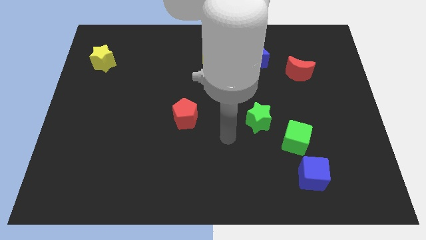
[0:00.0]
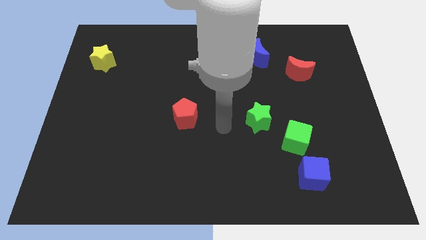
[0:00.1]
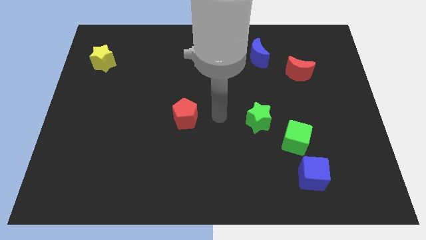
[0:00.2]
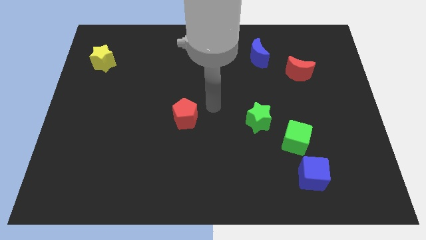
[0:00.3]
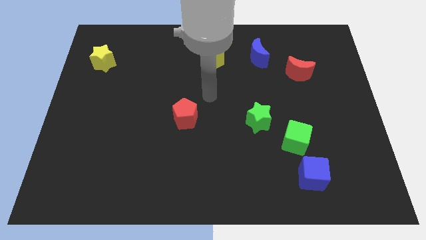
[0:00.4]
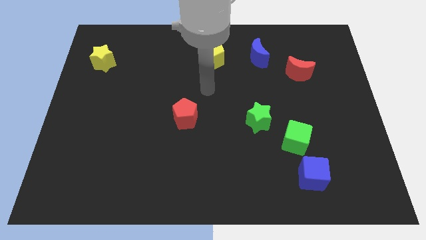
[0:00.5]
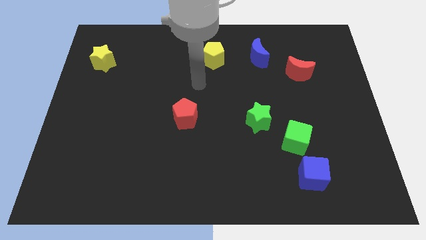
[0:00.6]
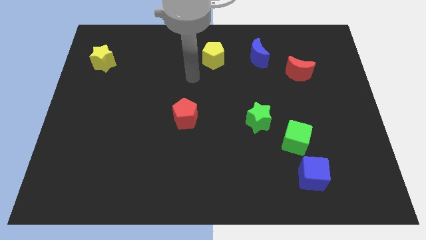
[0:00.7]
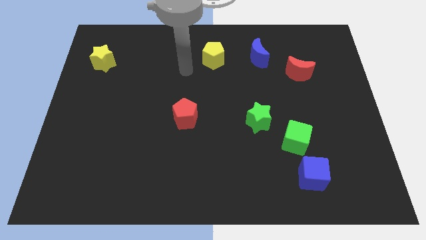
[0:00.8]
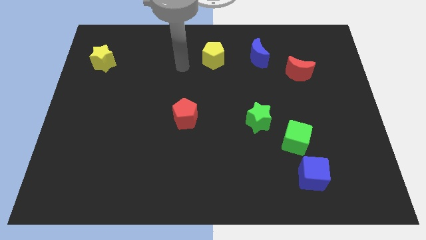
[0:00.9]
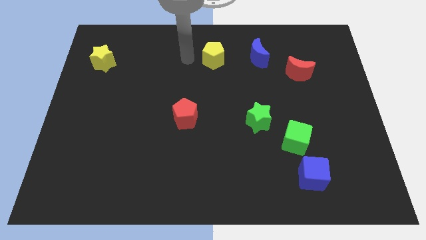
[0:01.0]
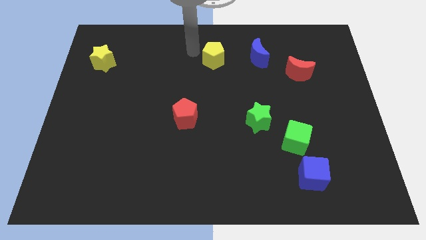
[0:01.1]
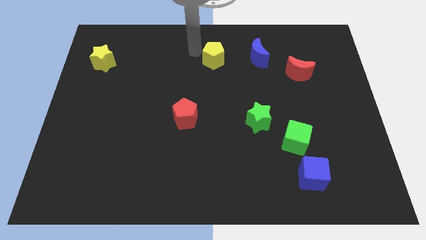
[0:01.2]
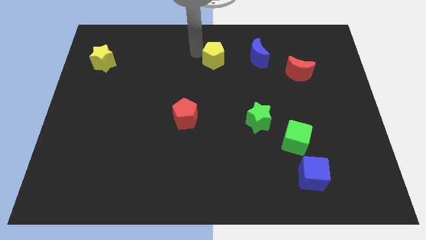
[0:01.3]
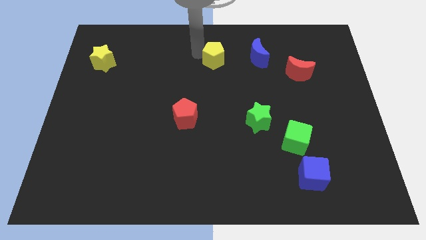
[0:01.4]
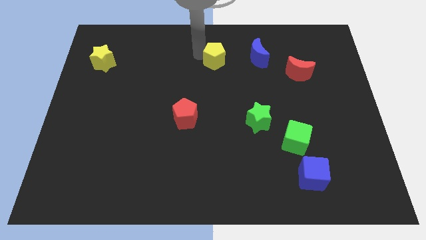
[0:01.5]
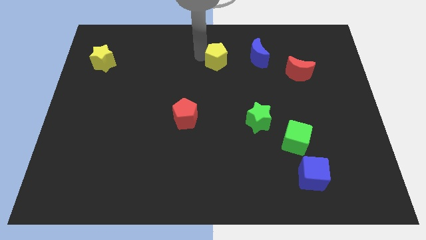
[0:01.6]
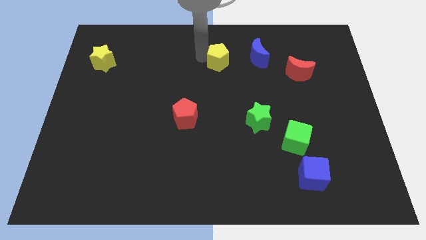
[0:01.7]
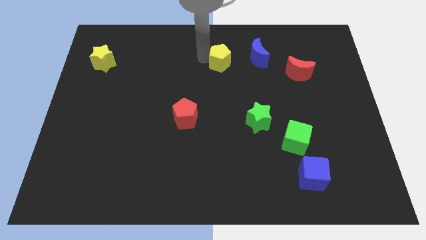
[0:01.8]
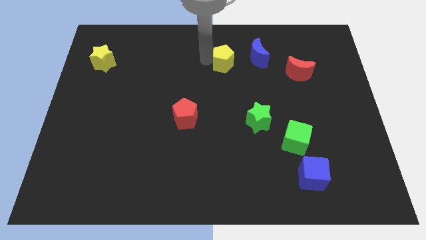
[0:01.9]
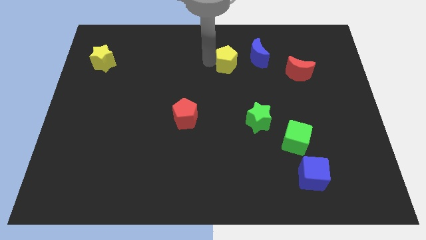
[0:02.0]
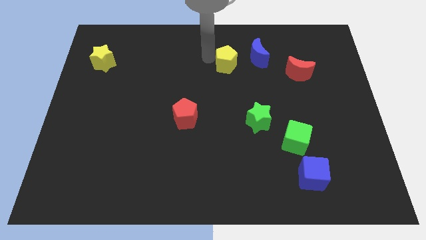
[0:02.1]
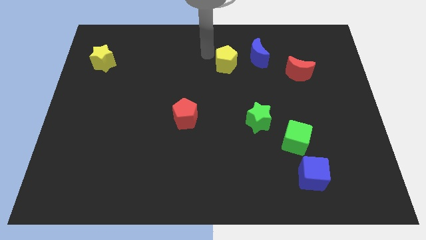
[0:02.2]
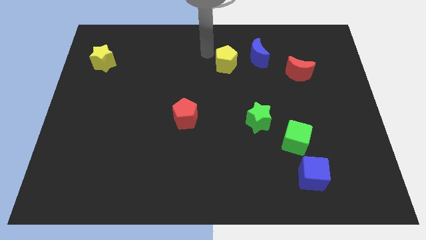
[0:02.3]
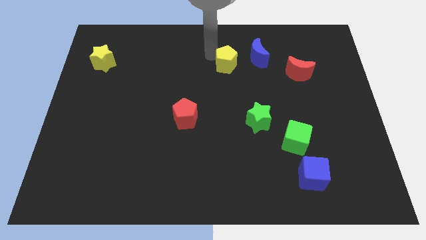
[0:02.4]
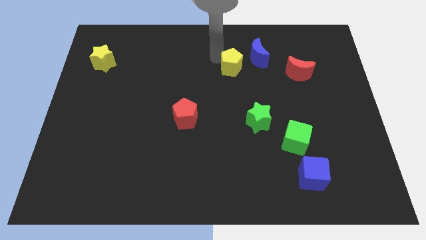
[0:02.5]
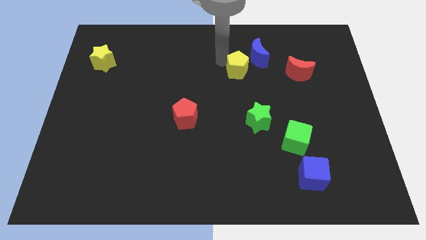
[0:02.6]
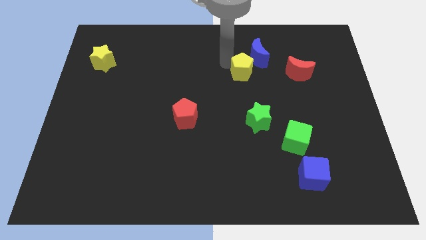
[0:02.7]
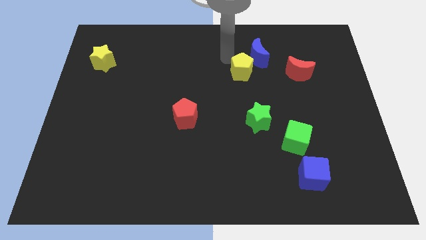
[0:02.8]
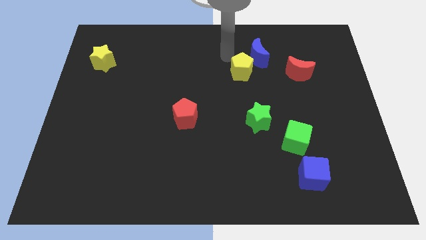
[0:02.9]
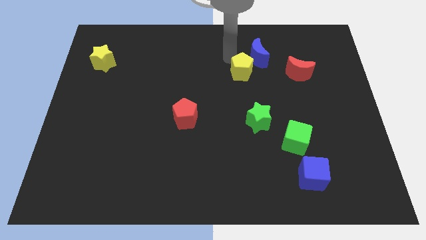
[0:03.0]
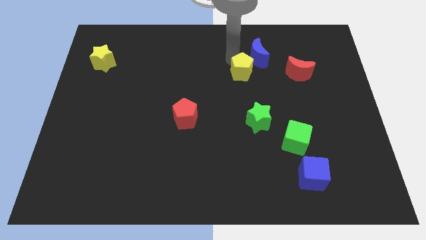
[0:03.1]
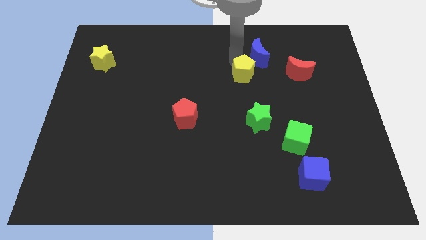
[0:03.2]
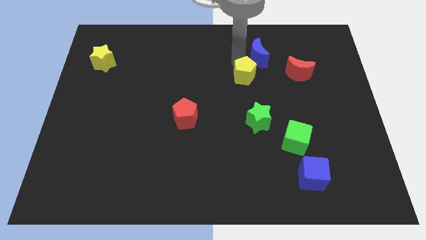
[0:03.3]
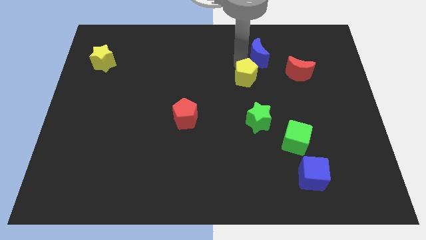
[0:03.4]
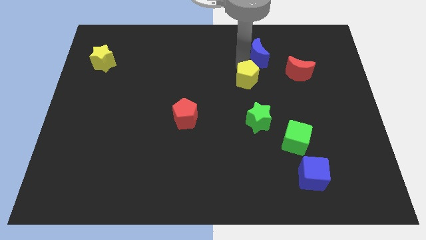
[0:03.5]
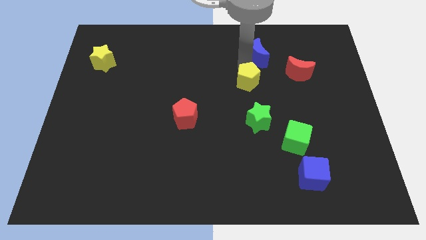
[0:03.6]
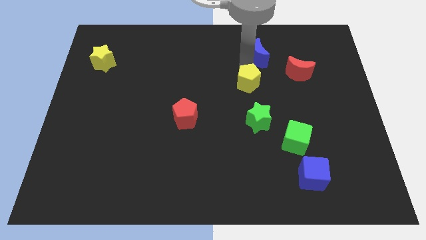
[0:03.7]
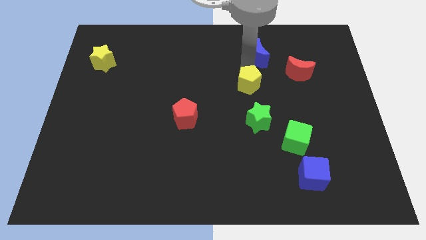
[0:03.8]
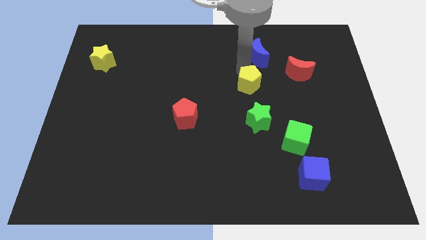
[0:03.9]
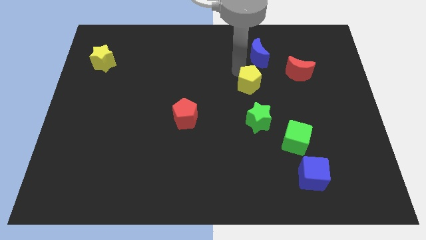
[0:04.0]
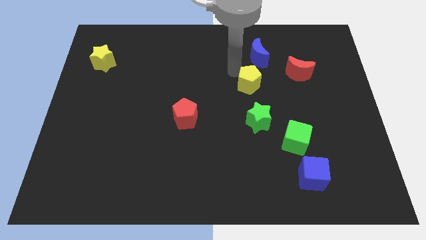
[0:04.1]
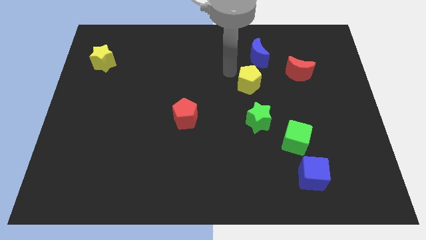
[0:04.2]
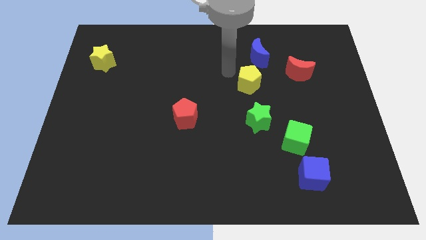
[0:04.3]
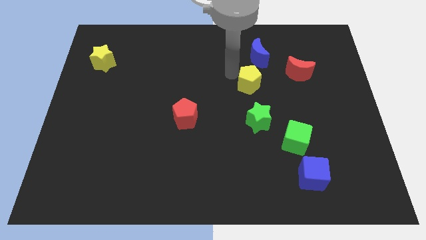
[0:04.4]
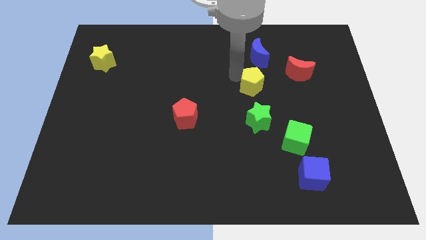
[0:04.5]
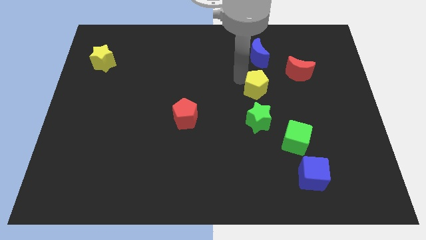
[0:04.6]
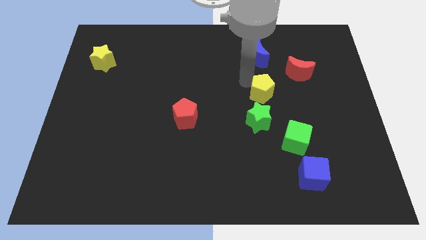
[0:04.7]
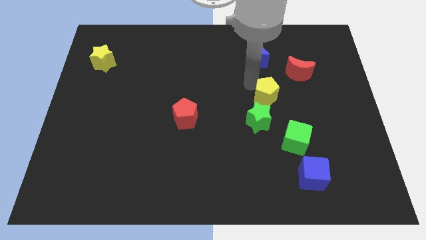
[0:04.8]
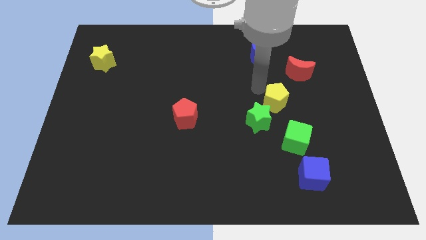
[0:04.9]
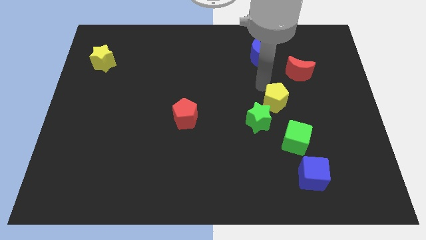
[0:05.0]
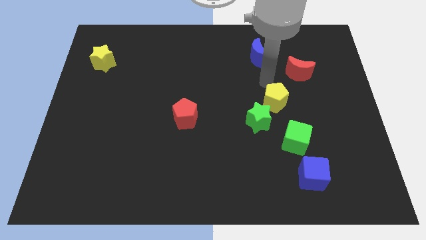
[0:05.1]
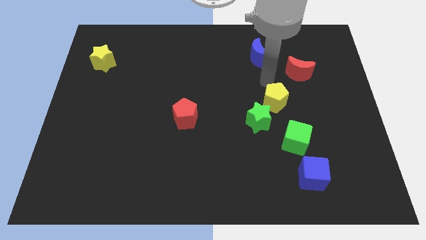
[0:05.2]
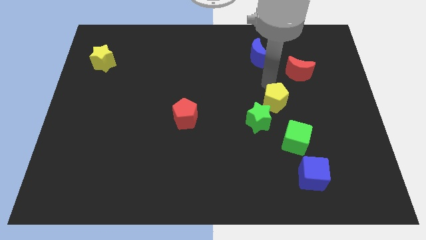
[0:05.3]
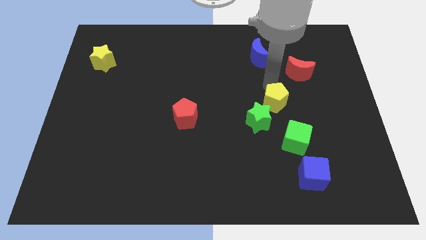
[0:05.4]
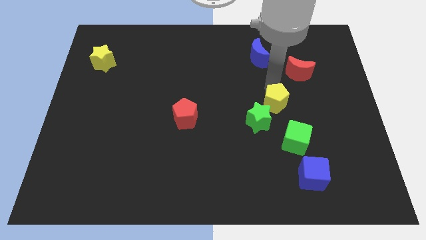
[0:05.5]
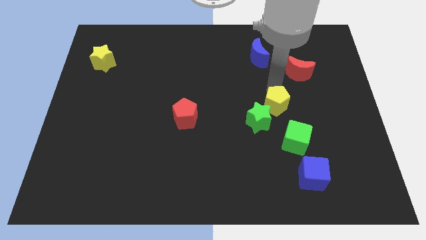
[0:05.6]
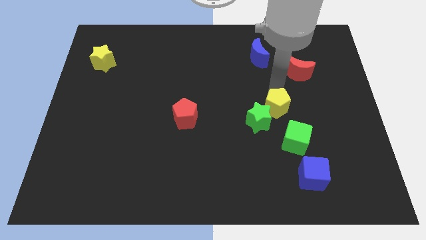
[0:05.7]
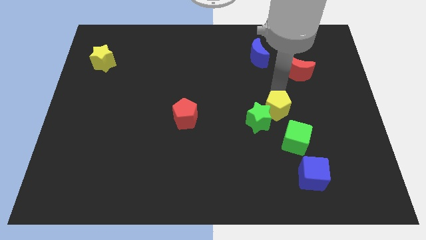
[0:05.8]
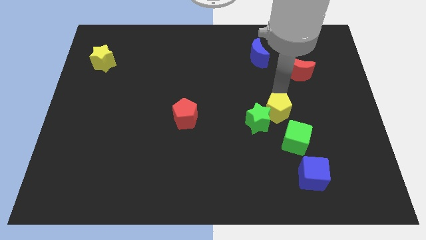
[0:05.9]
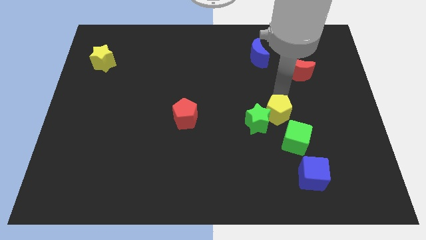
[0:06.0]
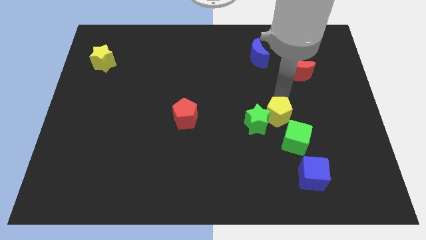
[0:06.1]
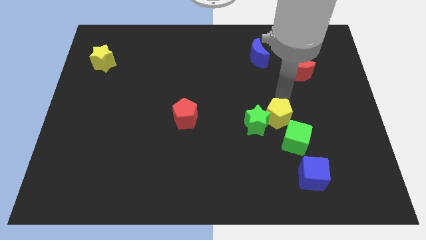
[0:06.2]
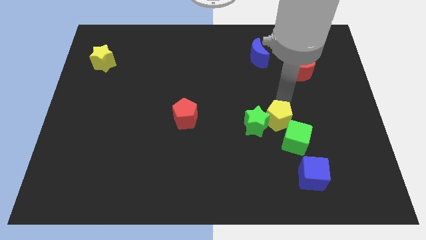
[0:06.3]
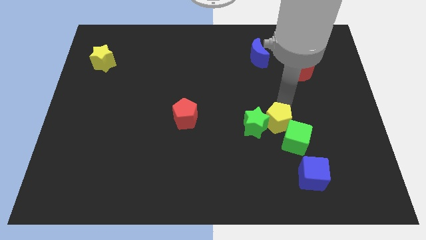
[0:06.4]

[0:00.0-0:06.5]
put the yellow pentagon next to the green cube

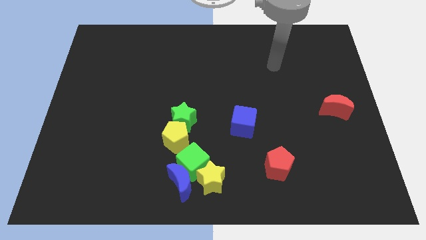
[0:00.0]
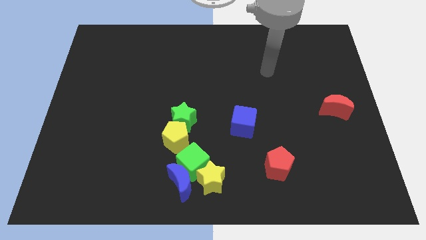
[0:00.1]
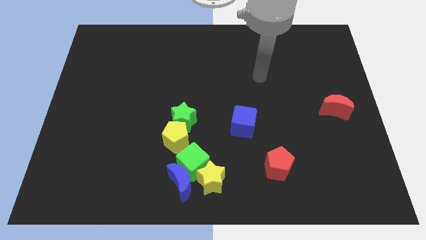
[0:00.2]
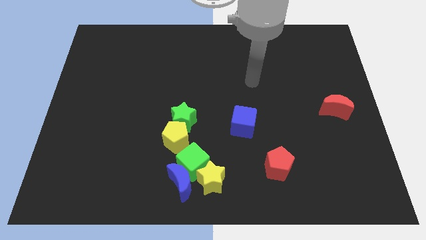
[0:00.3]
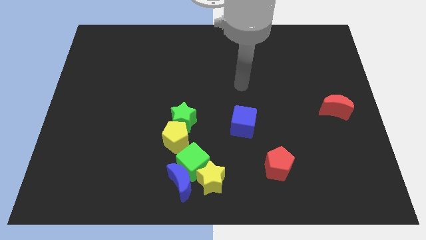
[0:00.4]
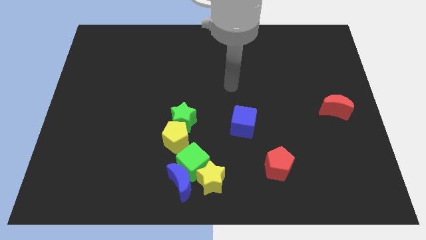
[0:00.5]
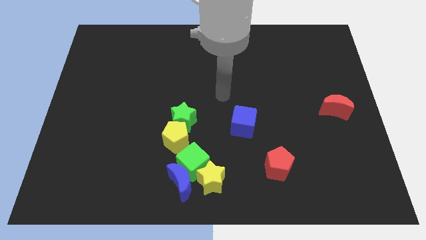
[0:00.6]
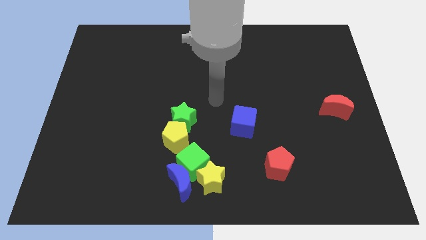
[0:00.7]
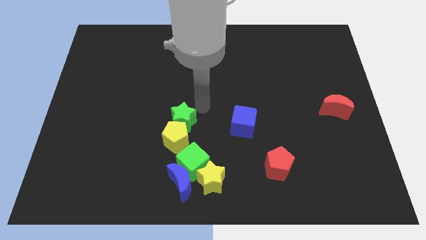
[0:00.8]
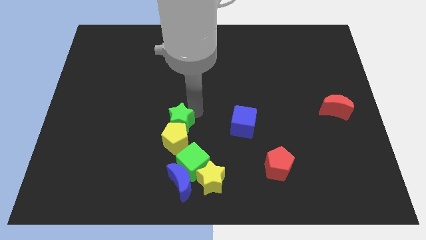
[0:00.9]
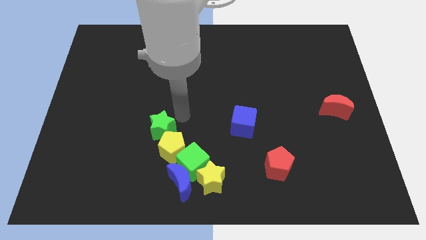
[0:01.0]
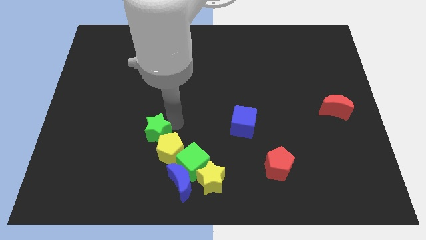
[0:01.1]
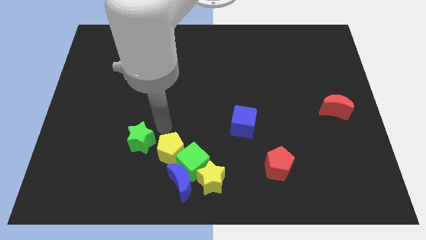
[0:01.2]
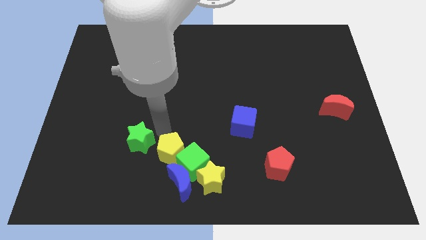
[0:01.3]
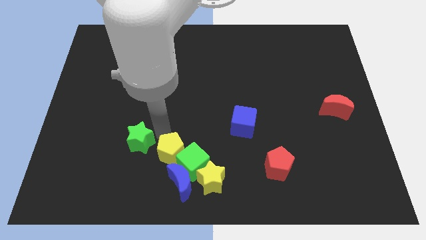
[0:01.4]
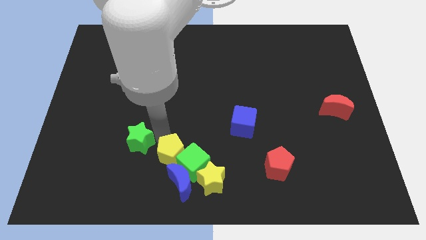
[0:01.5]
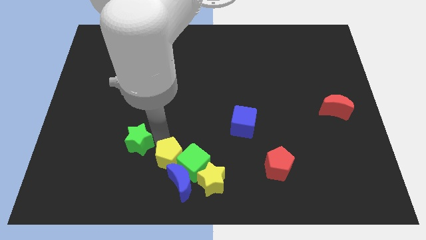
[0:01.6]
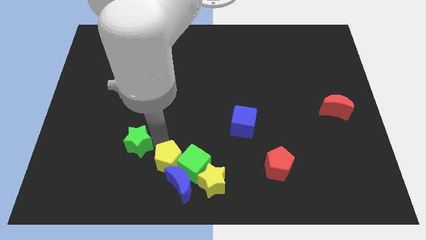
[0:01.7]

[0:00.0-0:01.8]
put the yellow pentagon close to the blue moon
